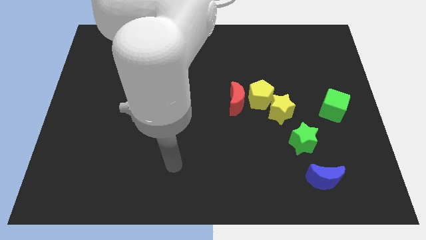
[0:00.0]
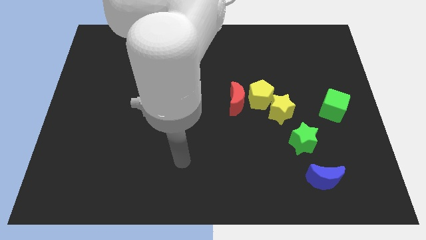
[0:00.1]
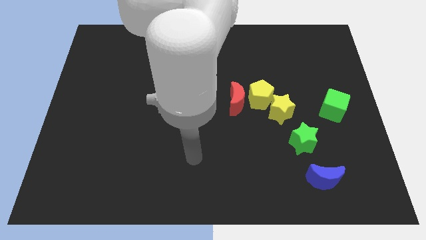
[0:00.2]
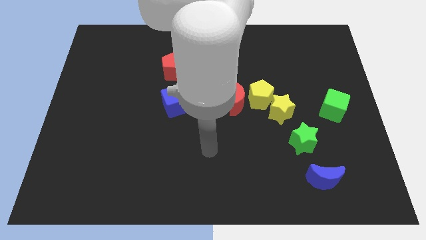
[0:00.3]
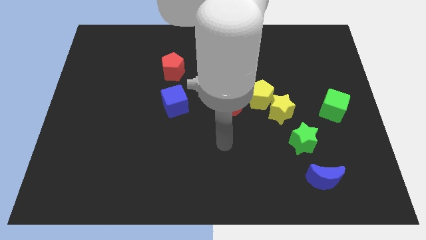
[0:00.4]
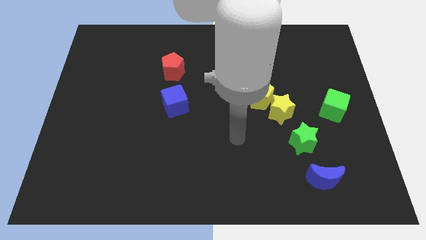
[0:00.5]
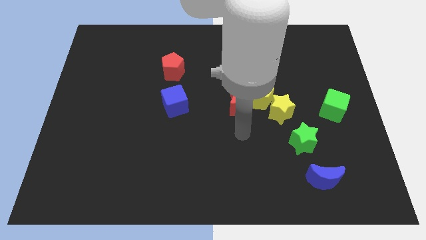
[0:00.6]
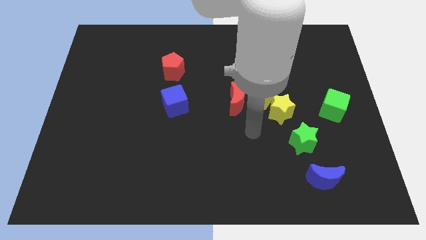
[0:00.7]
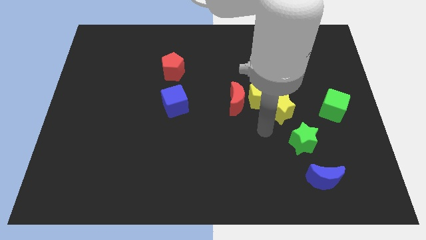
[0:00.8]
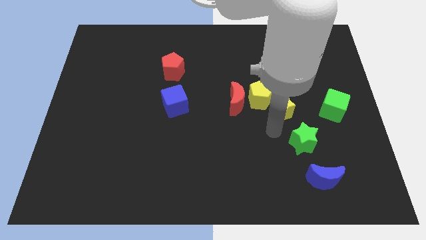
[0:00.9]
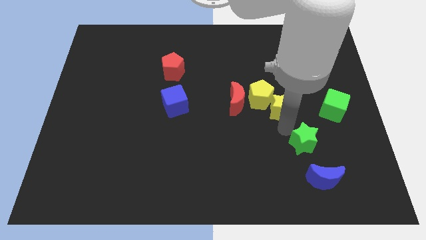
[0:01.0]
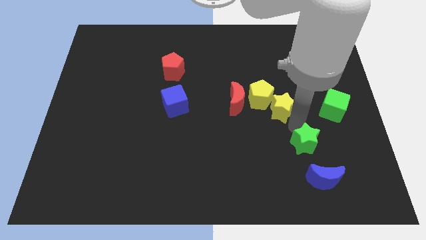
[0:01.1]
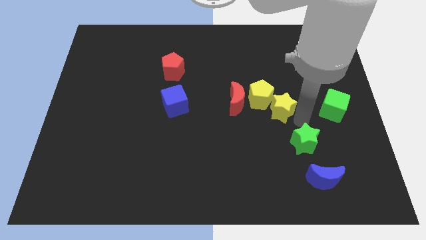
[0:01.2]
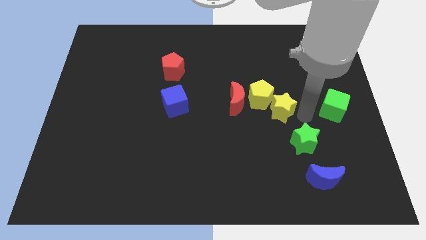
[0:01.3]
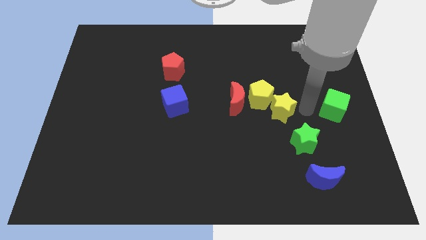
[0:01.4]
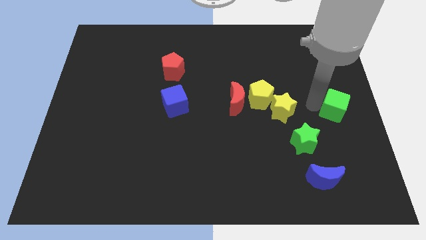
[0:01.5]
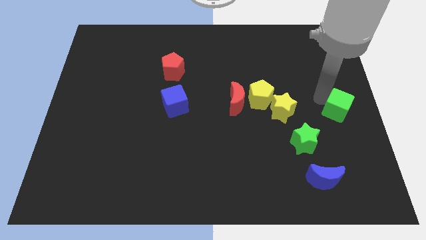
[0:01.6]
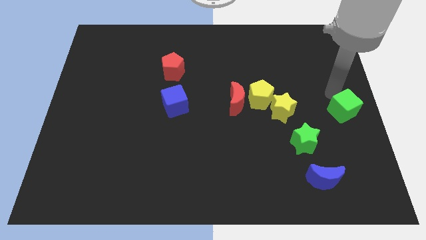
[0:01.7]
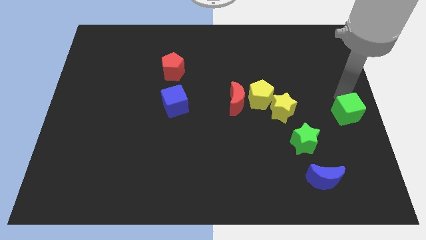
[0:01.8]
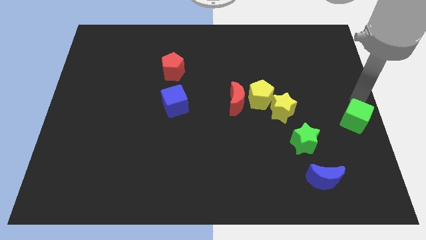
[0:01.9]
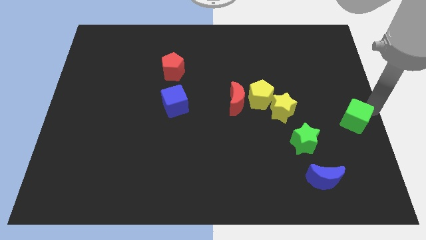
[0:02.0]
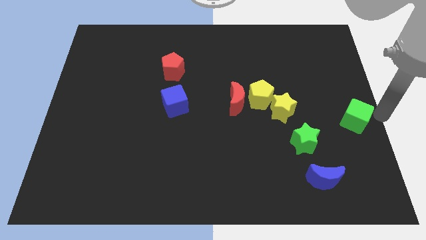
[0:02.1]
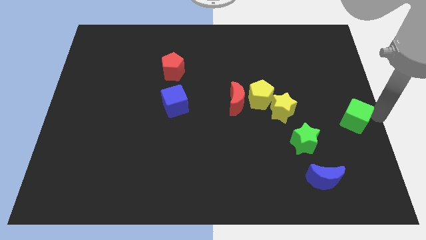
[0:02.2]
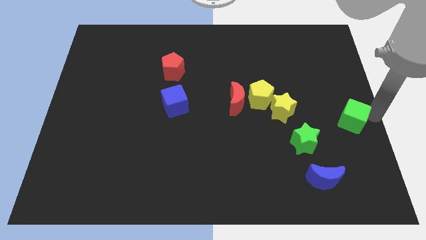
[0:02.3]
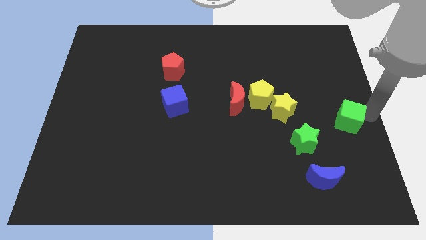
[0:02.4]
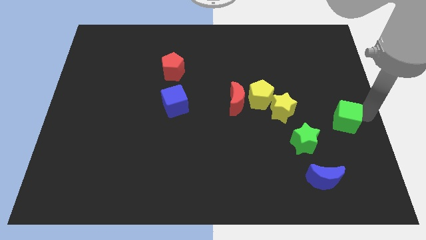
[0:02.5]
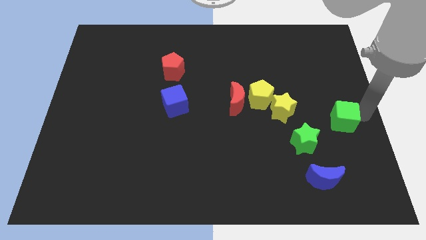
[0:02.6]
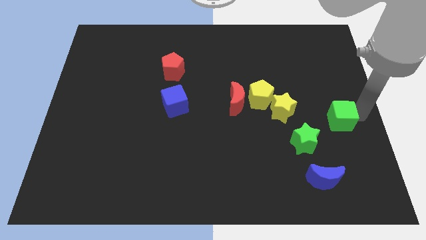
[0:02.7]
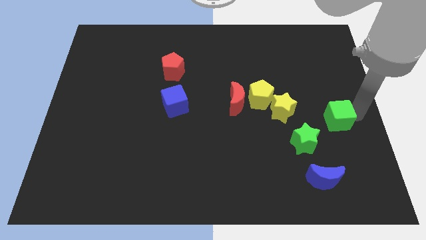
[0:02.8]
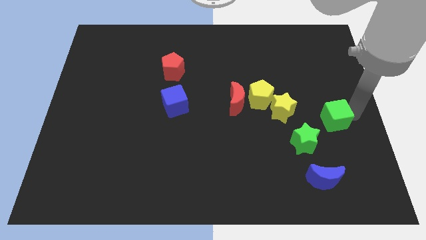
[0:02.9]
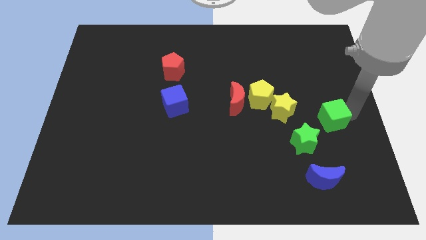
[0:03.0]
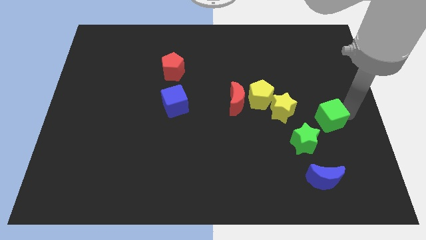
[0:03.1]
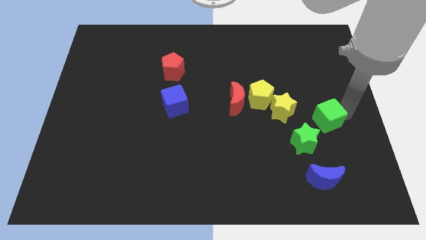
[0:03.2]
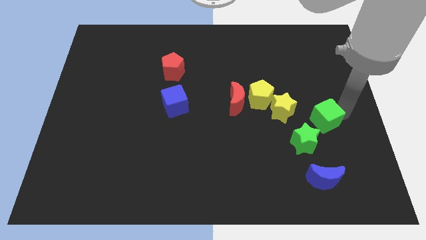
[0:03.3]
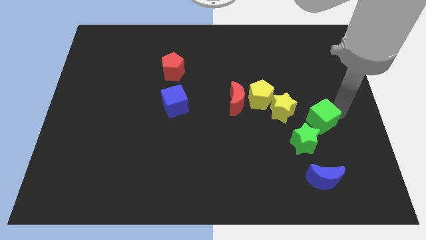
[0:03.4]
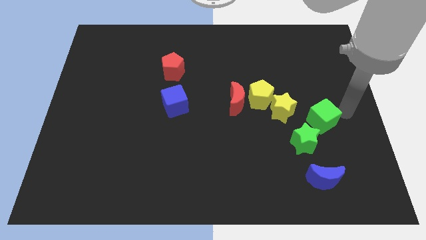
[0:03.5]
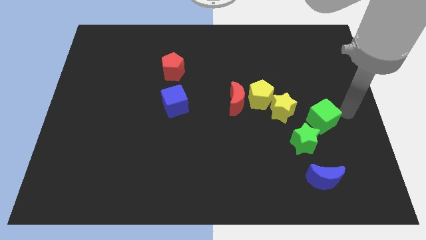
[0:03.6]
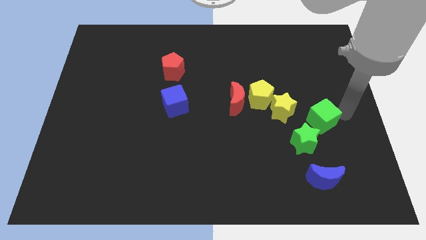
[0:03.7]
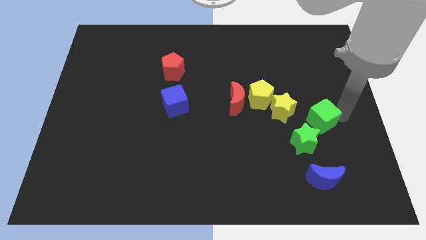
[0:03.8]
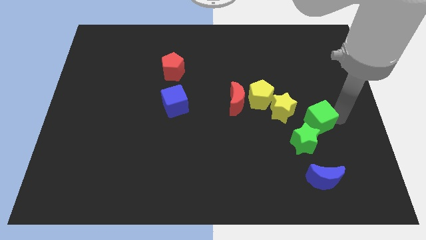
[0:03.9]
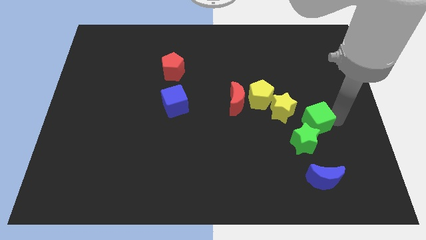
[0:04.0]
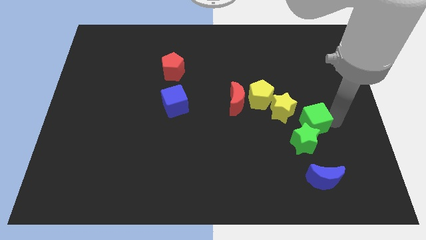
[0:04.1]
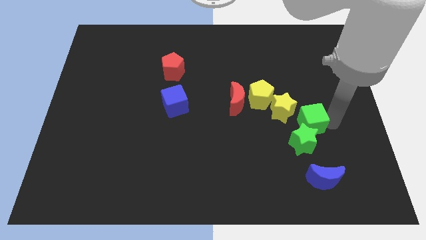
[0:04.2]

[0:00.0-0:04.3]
move the green cube a little bit diagonally downwards and left

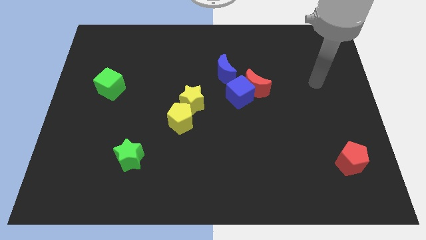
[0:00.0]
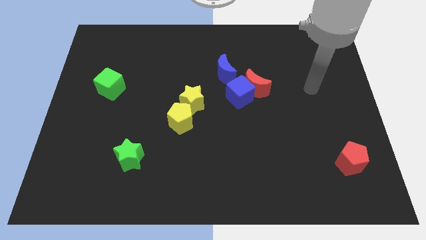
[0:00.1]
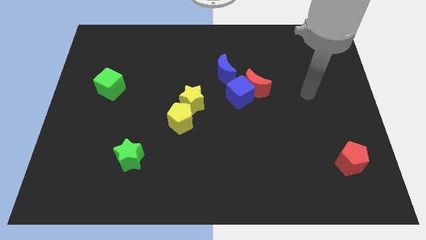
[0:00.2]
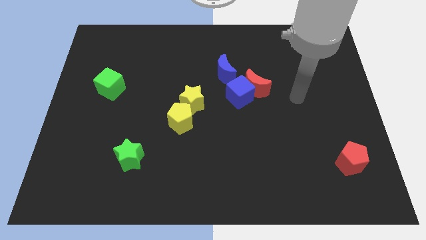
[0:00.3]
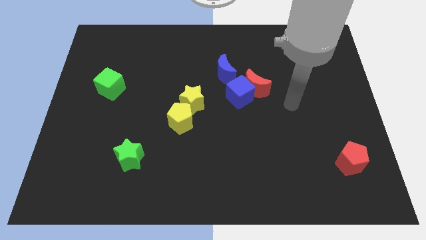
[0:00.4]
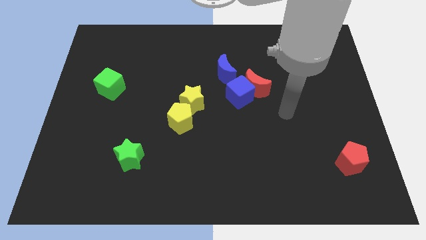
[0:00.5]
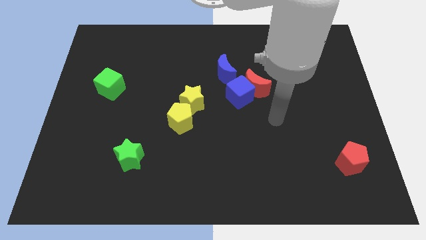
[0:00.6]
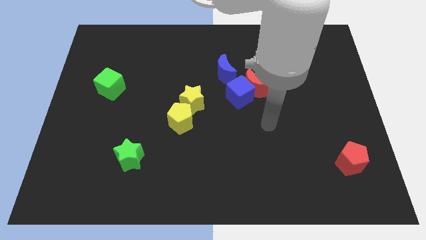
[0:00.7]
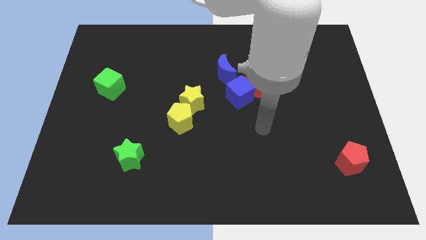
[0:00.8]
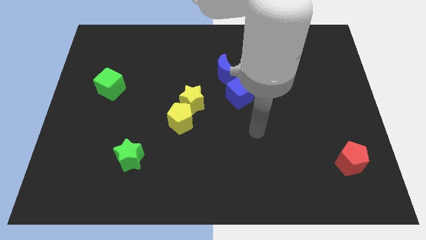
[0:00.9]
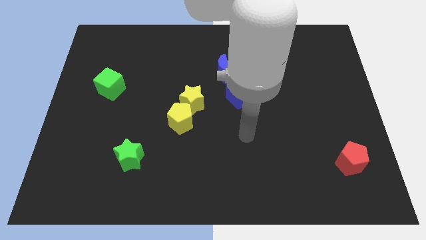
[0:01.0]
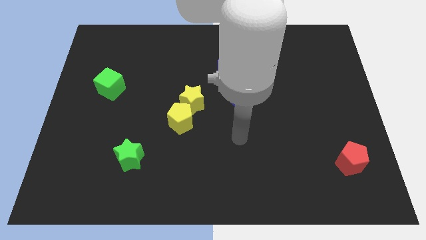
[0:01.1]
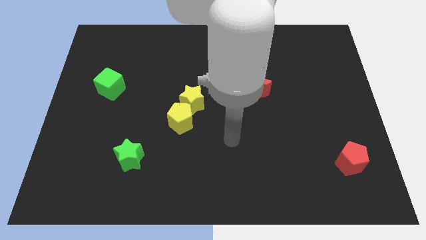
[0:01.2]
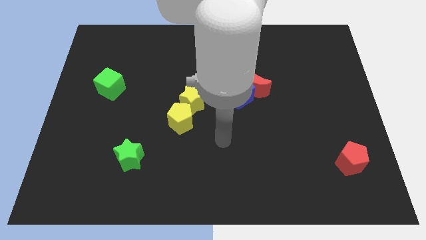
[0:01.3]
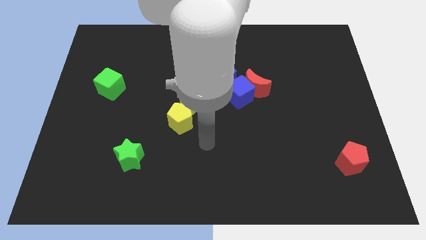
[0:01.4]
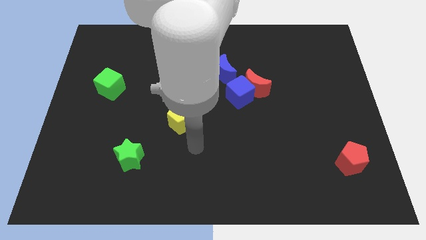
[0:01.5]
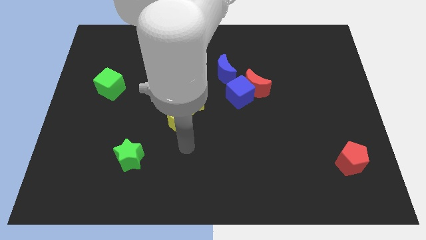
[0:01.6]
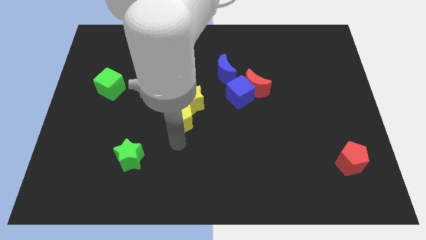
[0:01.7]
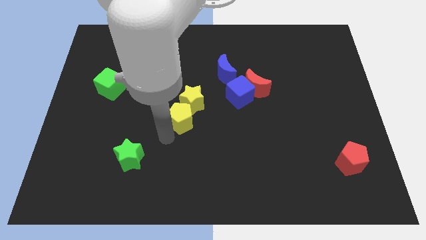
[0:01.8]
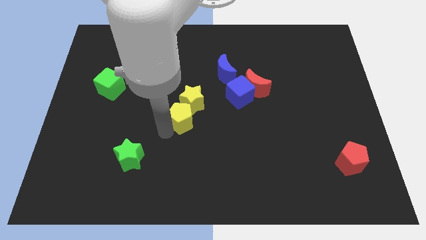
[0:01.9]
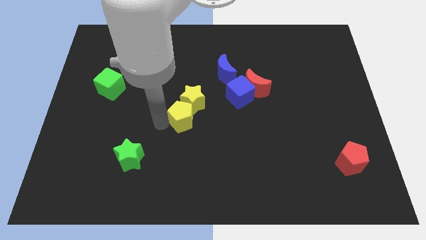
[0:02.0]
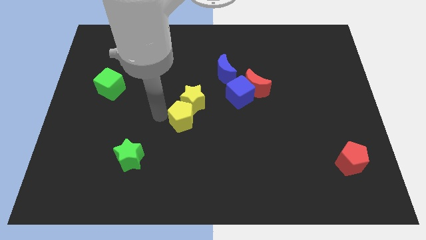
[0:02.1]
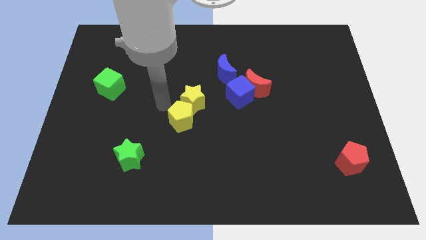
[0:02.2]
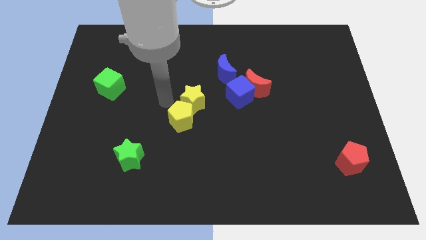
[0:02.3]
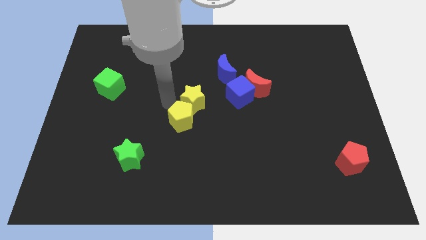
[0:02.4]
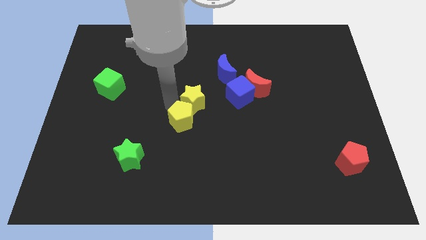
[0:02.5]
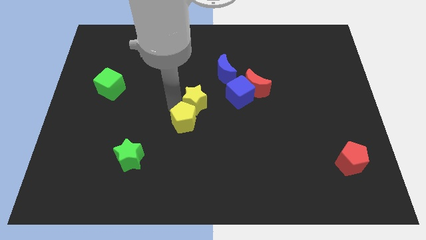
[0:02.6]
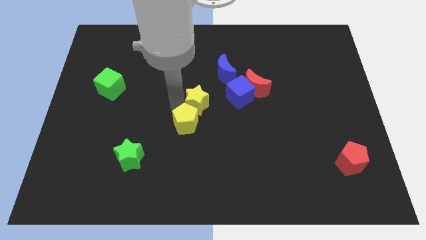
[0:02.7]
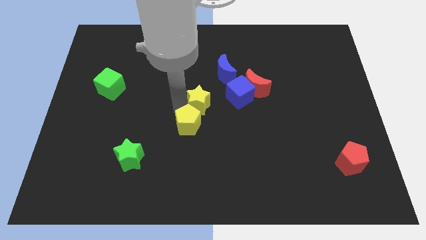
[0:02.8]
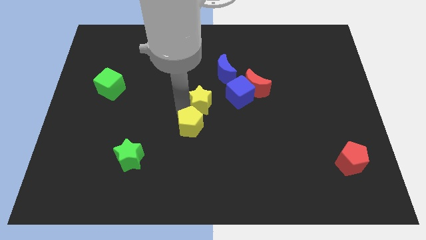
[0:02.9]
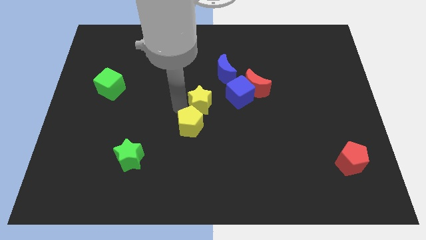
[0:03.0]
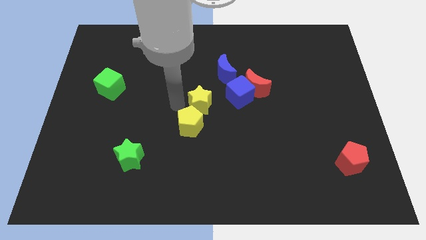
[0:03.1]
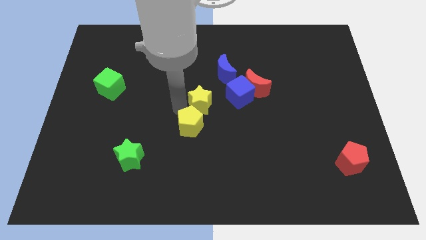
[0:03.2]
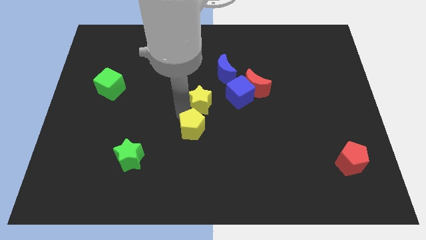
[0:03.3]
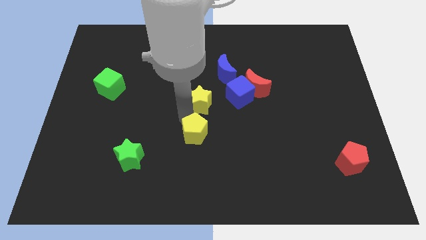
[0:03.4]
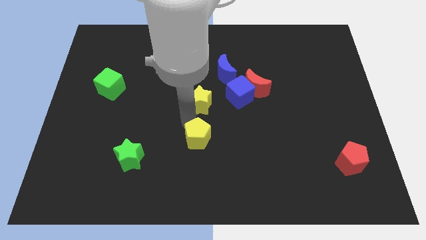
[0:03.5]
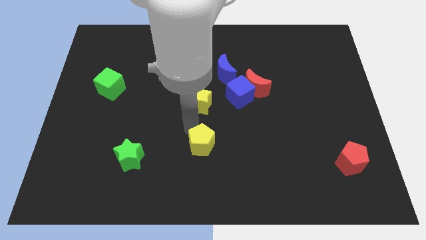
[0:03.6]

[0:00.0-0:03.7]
slide the yellow pentagon a little diagonally downwards and to the right

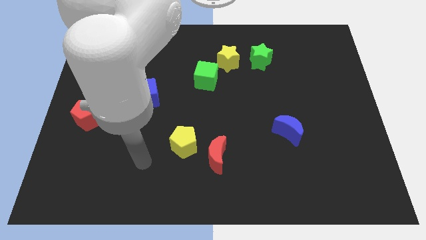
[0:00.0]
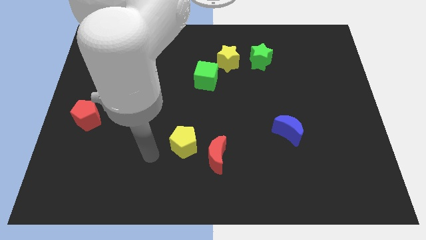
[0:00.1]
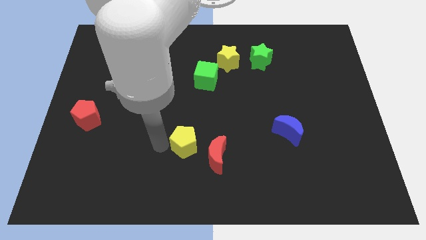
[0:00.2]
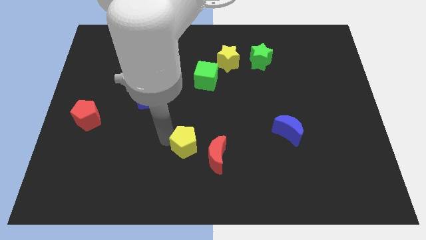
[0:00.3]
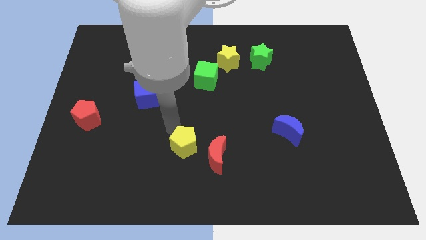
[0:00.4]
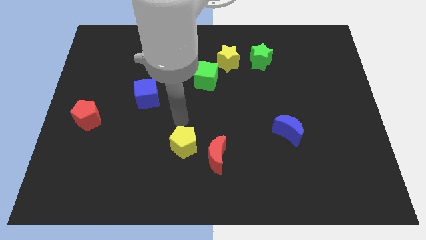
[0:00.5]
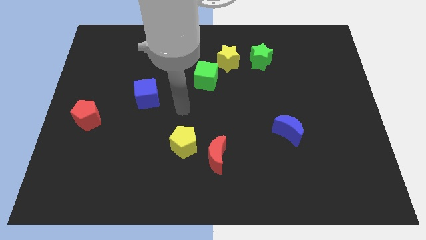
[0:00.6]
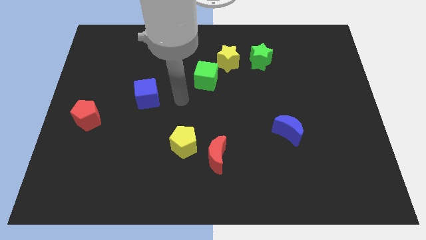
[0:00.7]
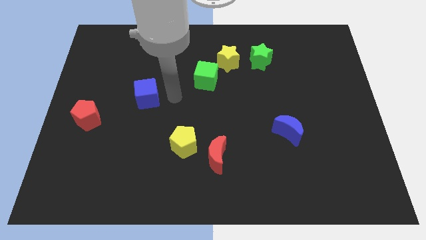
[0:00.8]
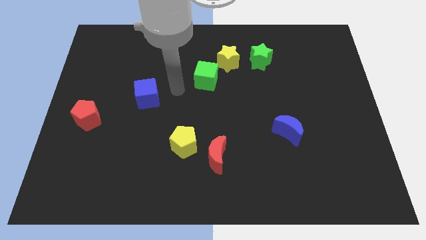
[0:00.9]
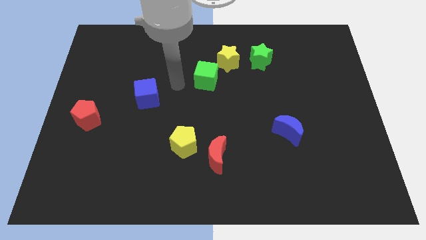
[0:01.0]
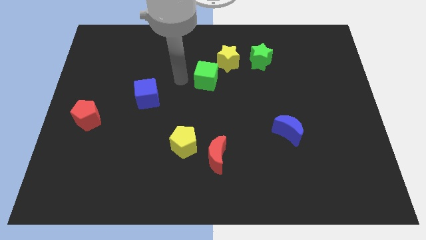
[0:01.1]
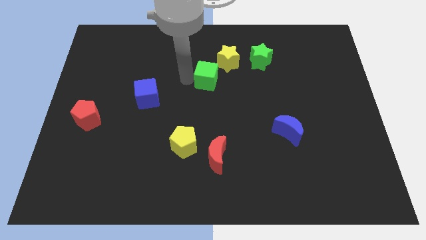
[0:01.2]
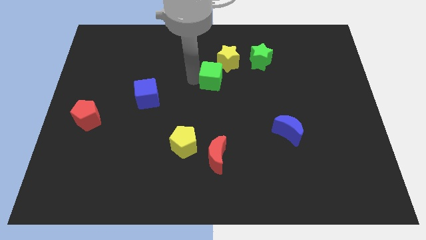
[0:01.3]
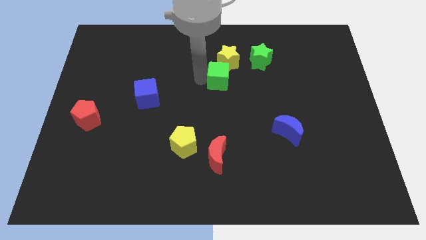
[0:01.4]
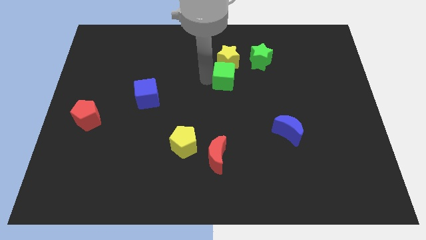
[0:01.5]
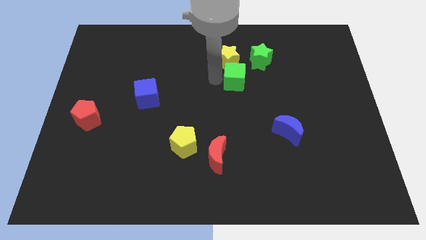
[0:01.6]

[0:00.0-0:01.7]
slide the green cube a bit right
